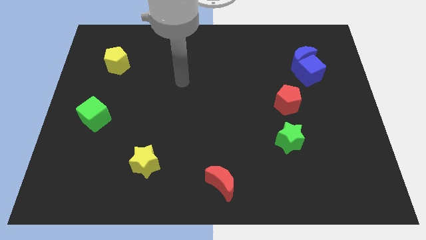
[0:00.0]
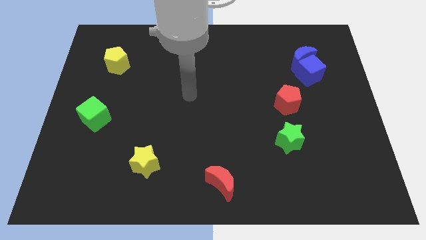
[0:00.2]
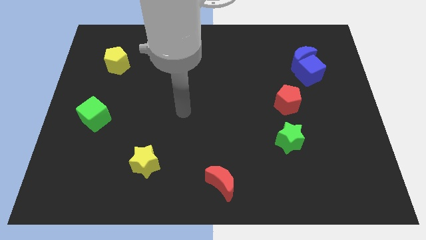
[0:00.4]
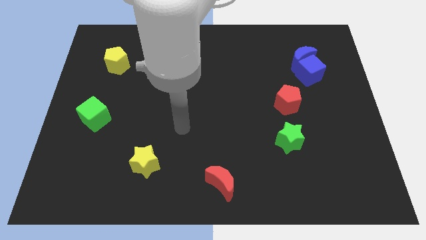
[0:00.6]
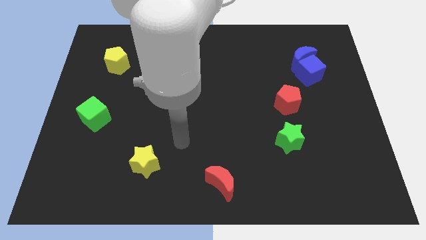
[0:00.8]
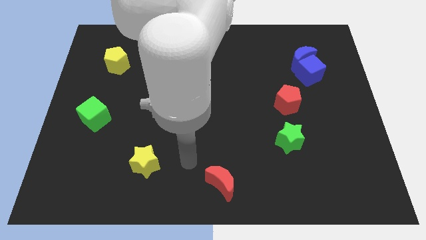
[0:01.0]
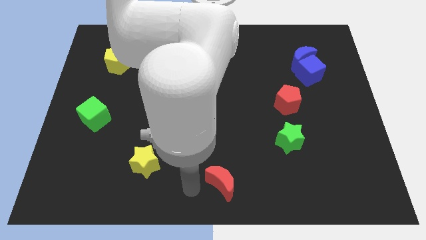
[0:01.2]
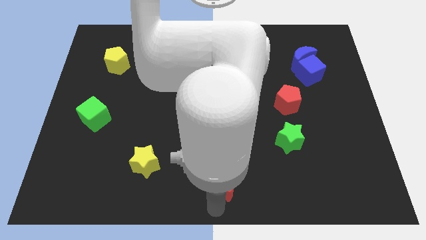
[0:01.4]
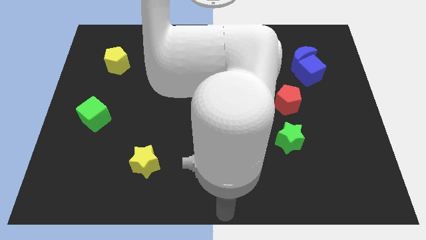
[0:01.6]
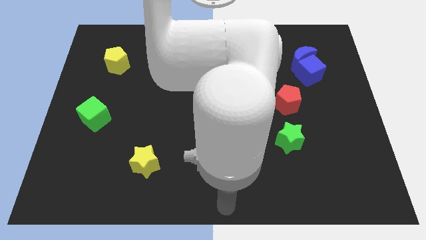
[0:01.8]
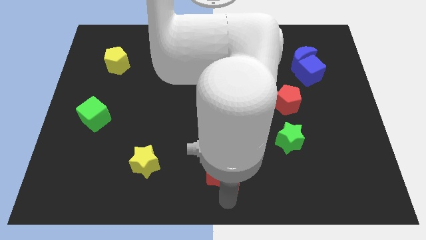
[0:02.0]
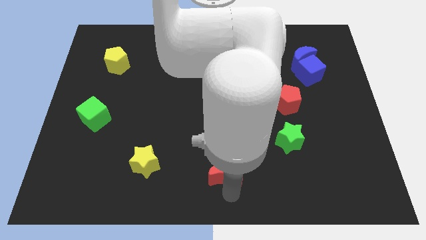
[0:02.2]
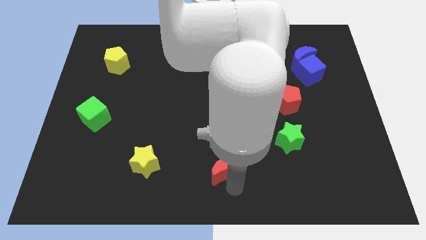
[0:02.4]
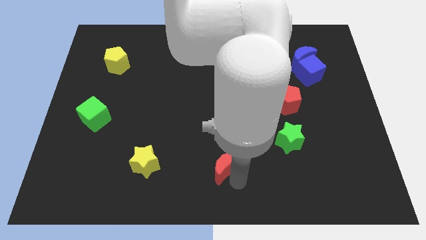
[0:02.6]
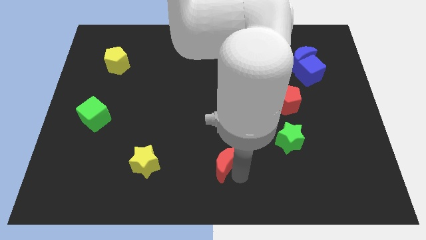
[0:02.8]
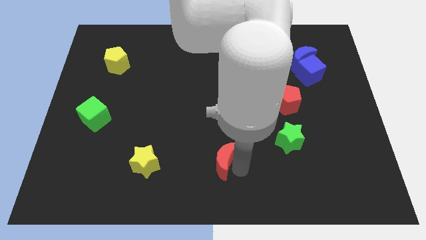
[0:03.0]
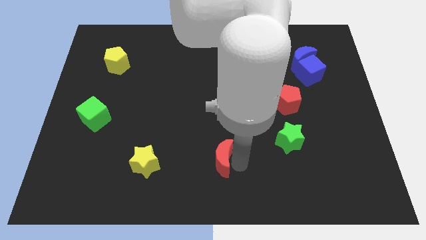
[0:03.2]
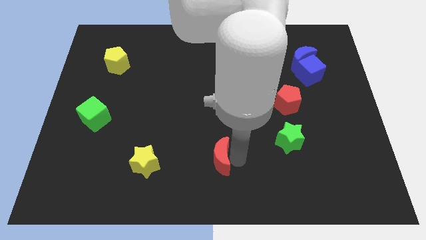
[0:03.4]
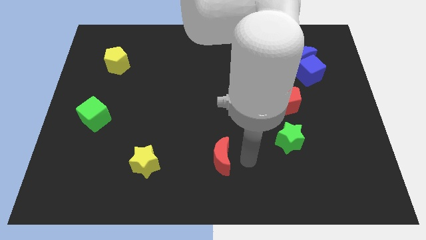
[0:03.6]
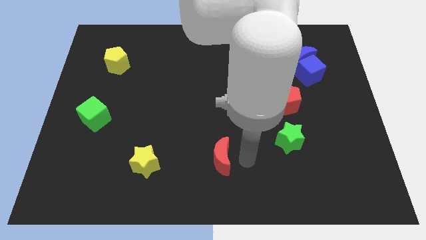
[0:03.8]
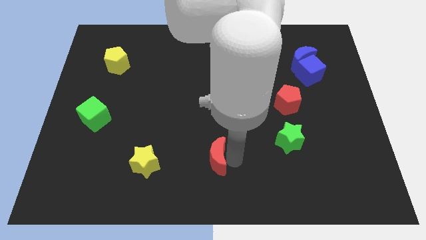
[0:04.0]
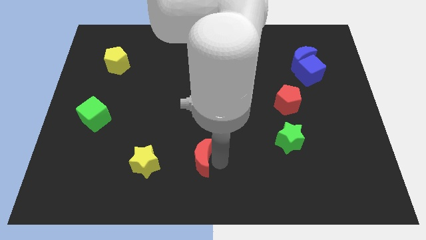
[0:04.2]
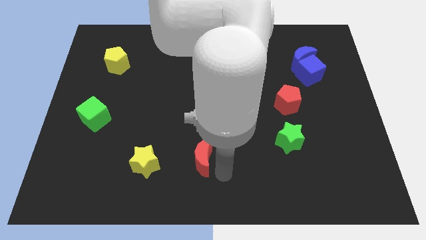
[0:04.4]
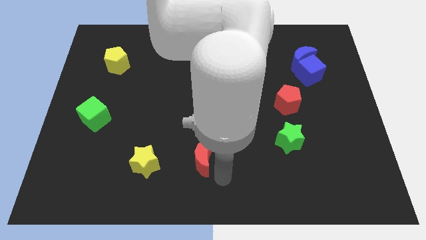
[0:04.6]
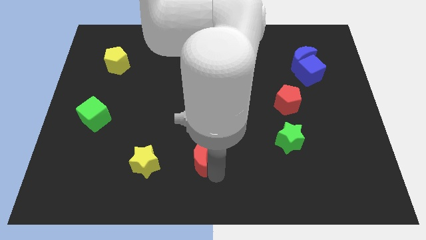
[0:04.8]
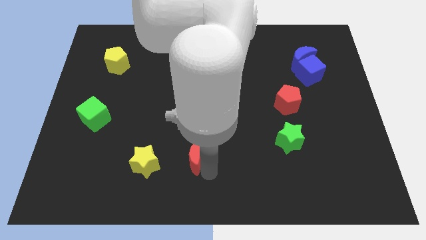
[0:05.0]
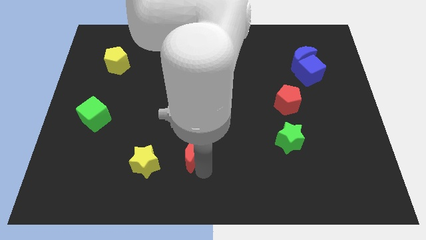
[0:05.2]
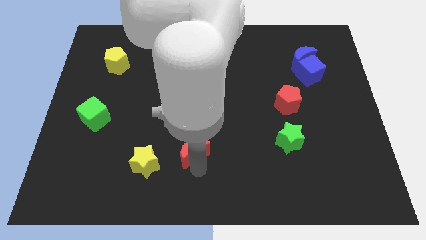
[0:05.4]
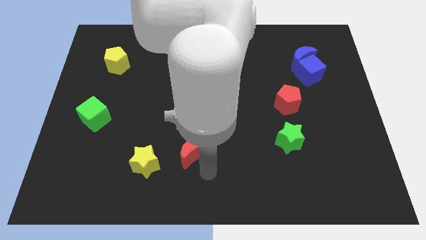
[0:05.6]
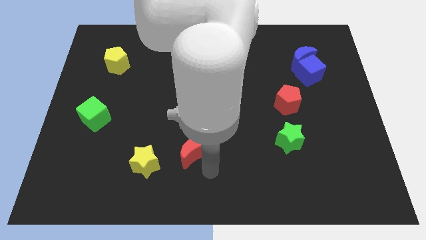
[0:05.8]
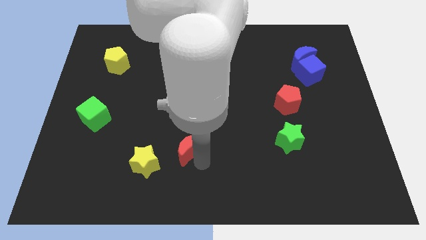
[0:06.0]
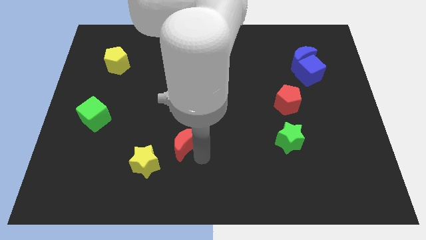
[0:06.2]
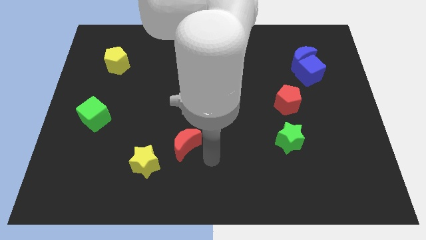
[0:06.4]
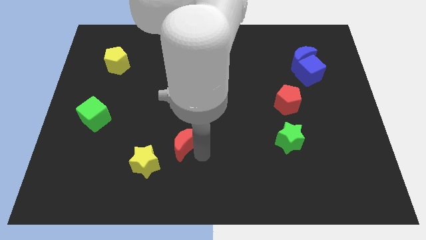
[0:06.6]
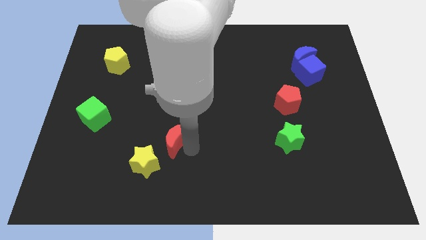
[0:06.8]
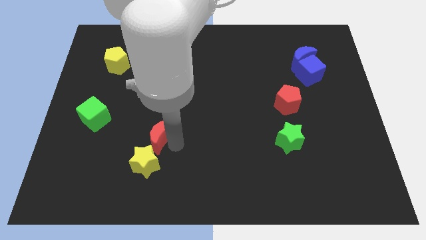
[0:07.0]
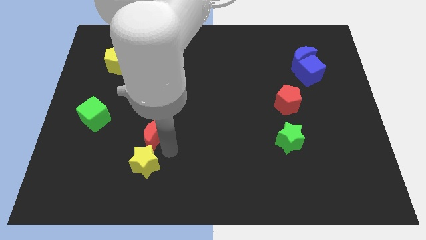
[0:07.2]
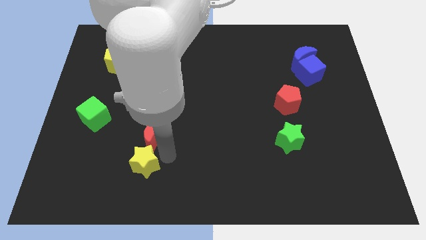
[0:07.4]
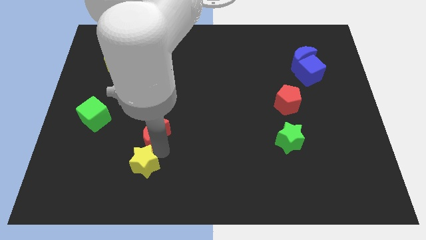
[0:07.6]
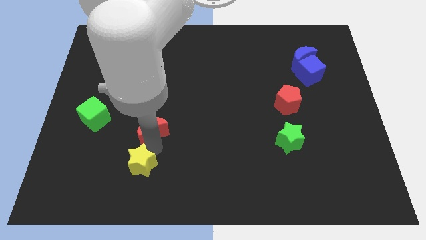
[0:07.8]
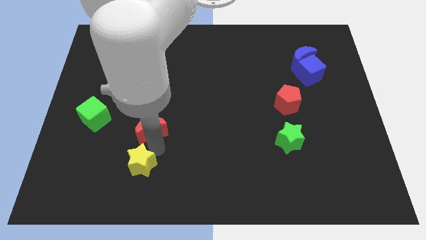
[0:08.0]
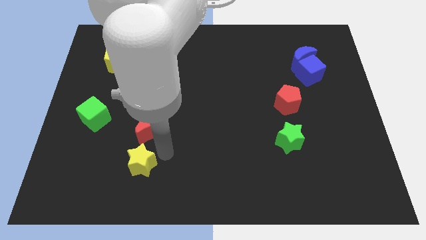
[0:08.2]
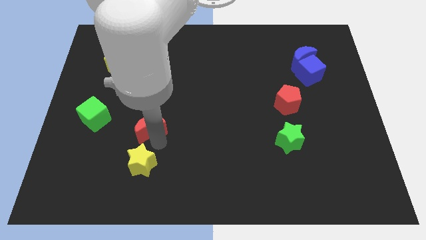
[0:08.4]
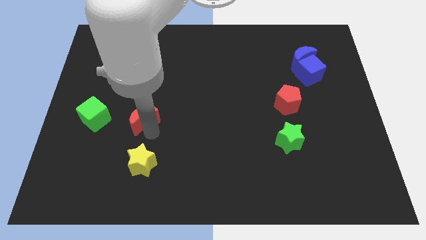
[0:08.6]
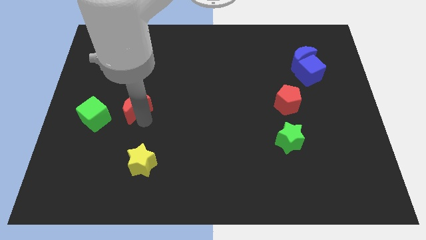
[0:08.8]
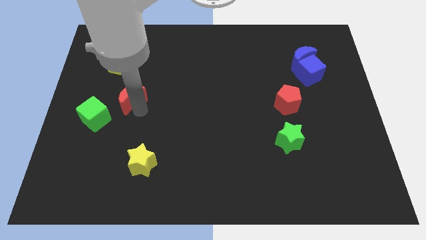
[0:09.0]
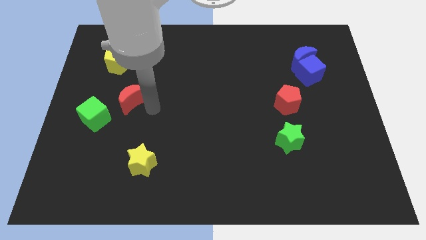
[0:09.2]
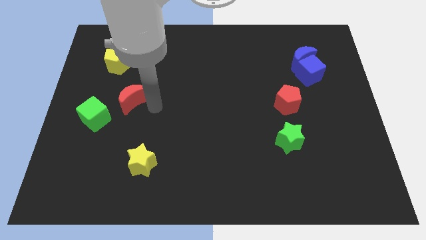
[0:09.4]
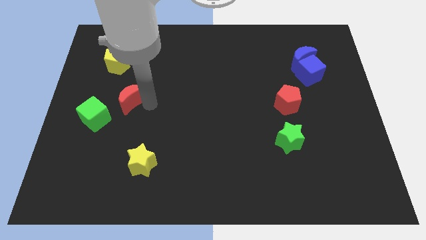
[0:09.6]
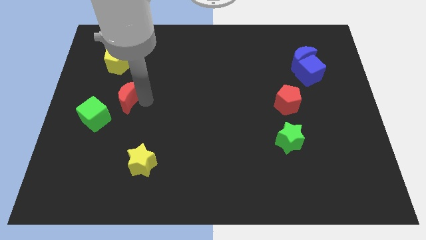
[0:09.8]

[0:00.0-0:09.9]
put the red moon below the yellow pentagon

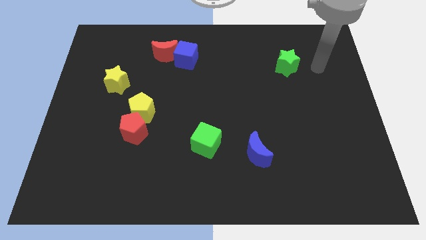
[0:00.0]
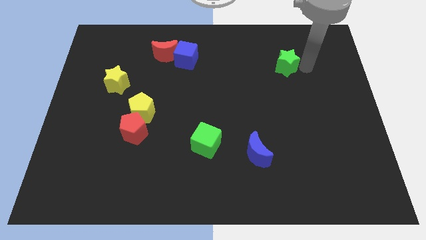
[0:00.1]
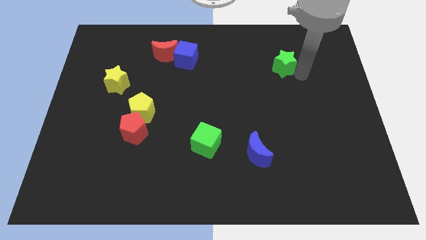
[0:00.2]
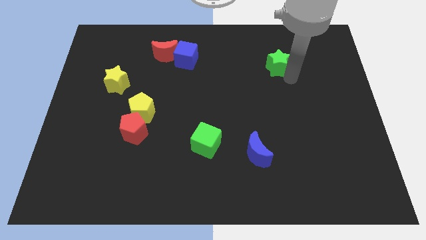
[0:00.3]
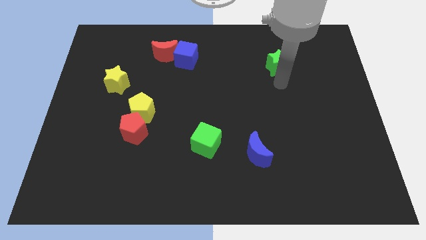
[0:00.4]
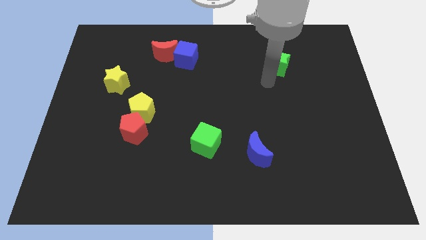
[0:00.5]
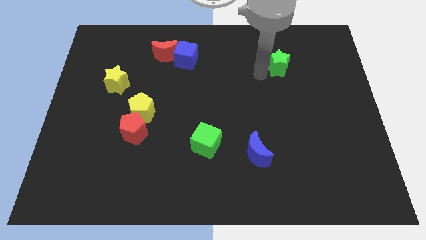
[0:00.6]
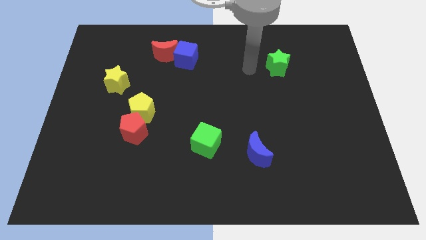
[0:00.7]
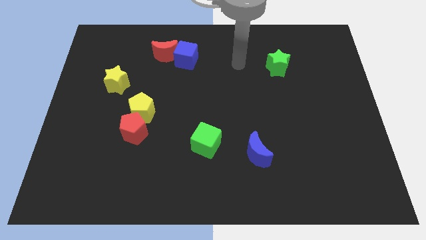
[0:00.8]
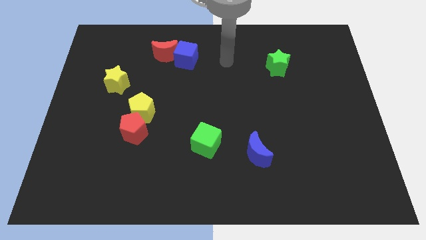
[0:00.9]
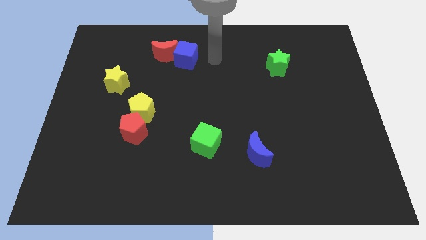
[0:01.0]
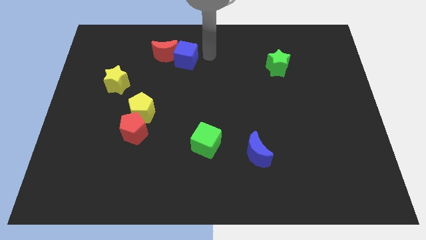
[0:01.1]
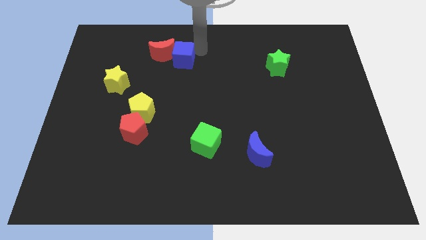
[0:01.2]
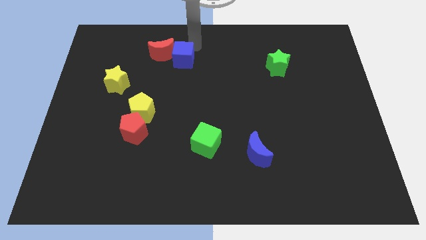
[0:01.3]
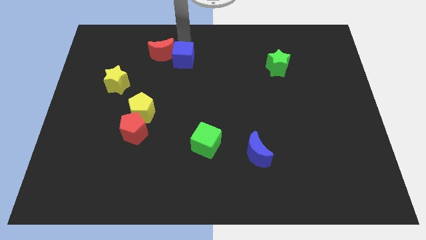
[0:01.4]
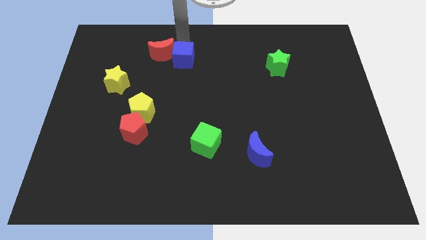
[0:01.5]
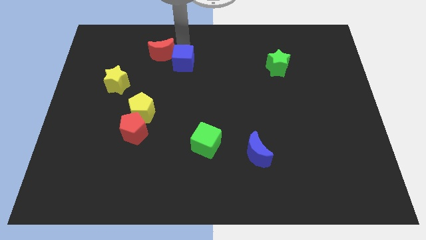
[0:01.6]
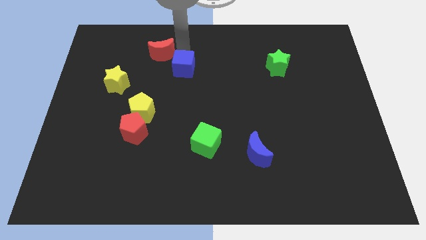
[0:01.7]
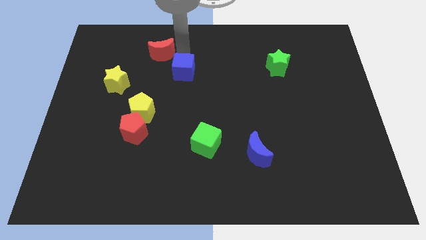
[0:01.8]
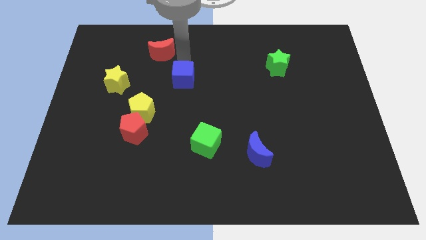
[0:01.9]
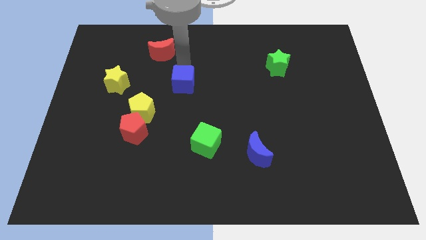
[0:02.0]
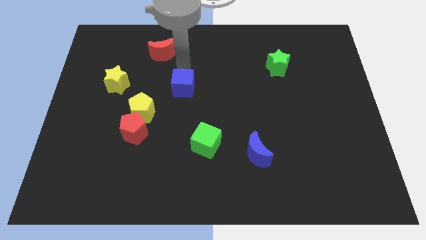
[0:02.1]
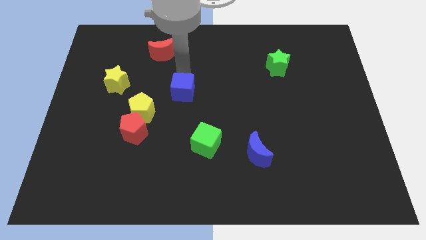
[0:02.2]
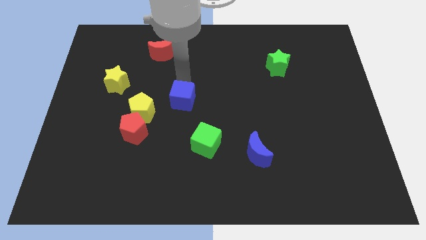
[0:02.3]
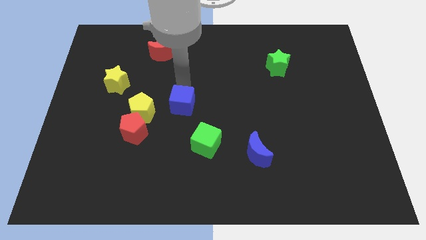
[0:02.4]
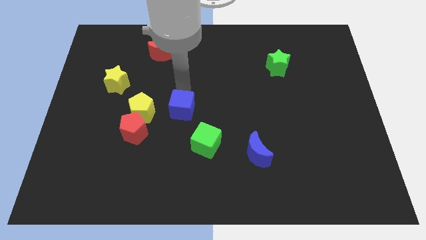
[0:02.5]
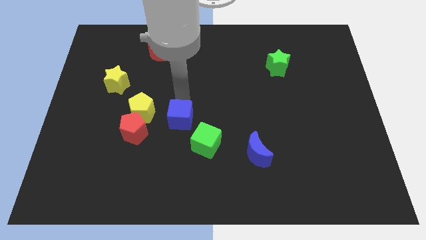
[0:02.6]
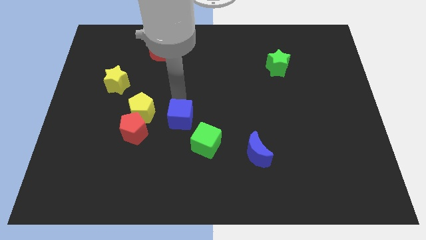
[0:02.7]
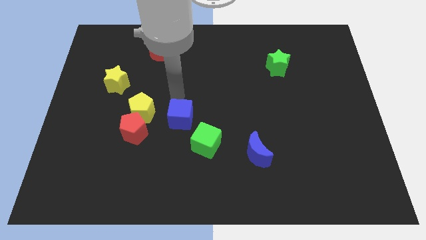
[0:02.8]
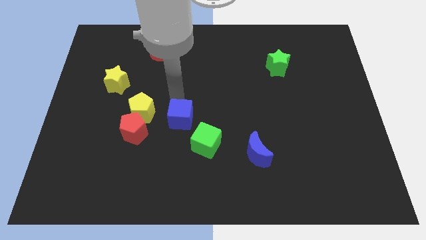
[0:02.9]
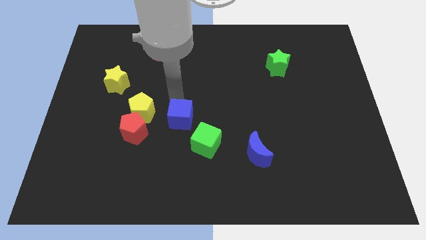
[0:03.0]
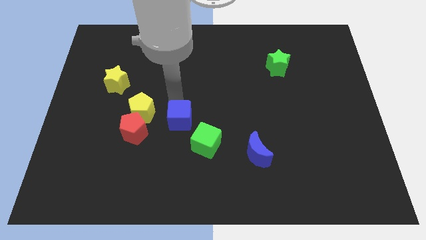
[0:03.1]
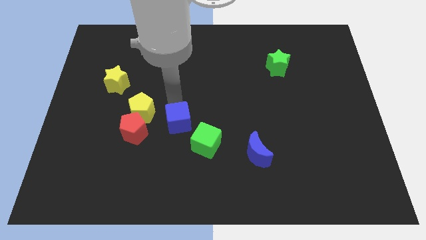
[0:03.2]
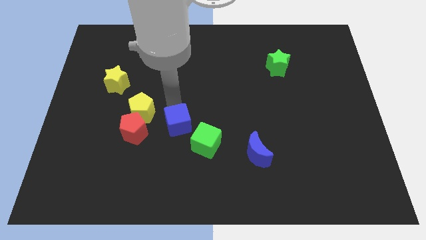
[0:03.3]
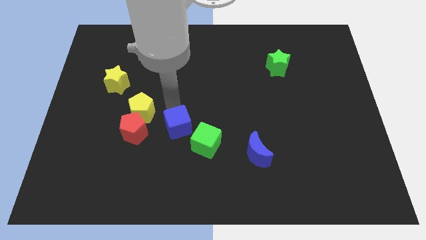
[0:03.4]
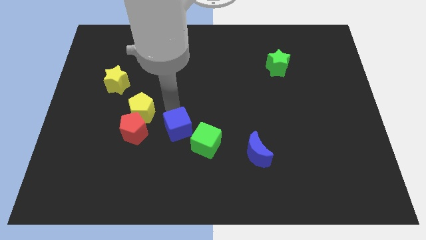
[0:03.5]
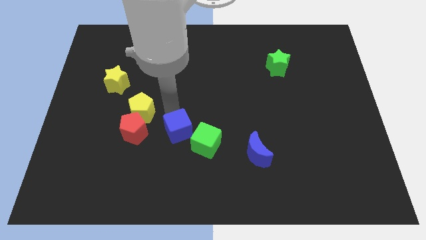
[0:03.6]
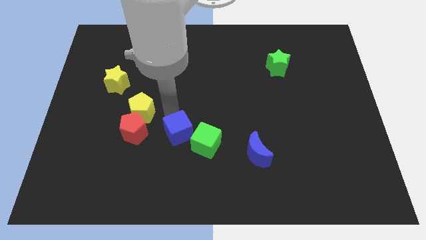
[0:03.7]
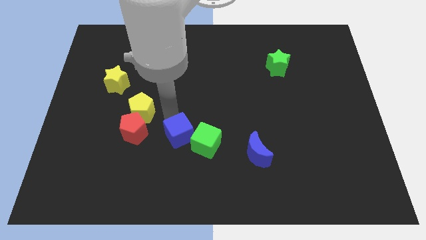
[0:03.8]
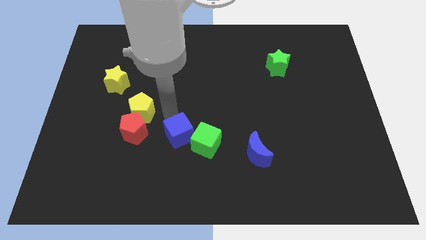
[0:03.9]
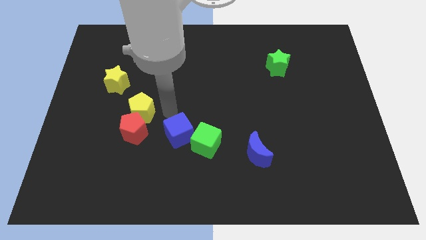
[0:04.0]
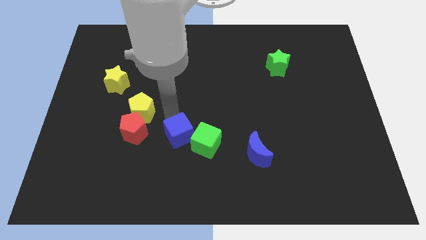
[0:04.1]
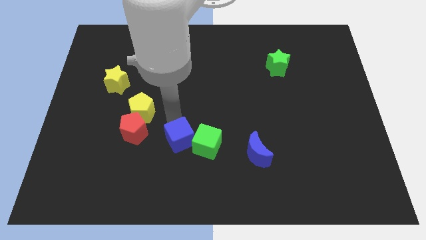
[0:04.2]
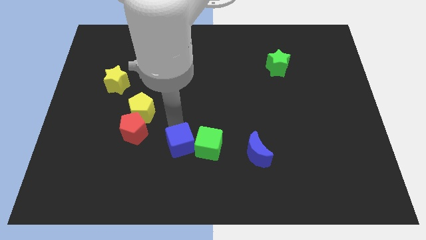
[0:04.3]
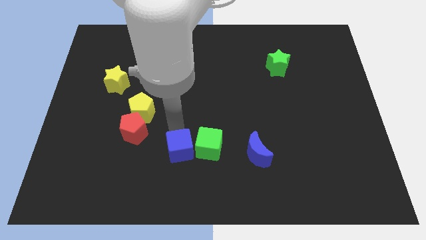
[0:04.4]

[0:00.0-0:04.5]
put the blue cube left of the blue moon
